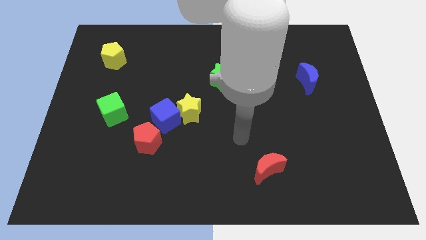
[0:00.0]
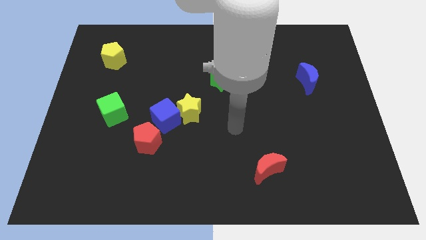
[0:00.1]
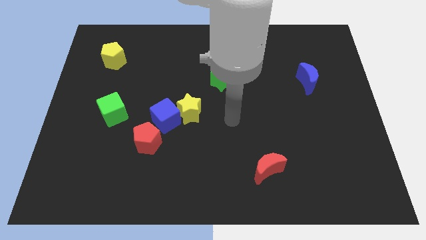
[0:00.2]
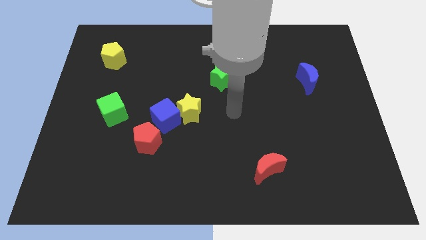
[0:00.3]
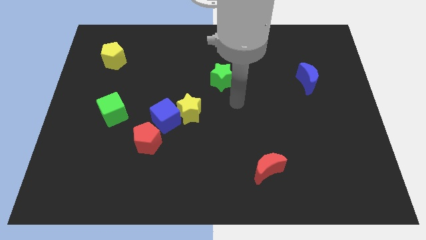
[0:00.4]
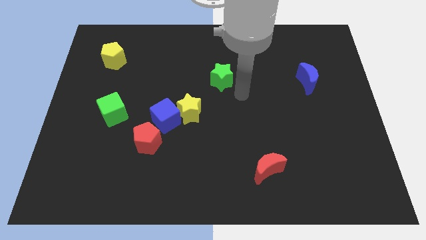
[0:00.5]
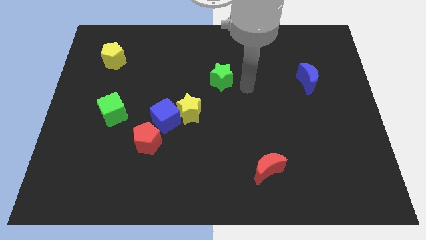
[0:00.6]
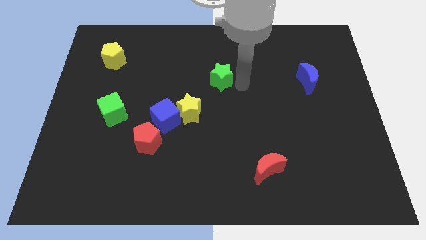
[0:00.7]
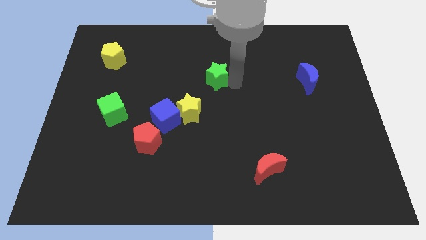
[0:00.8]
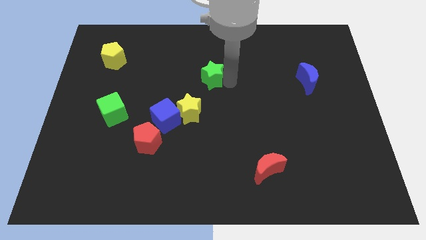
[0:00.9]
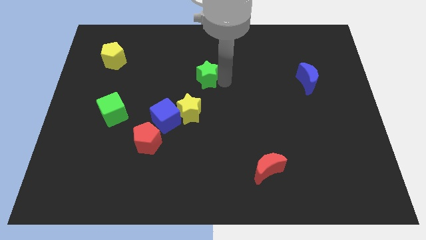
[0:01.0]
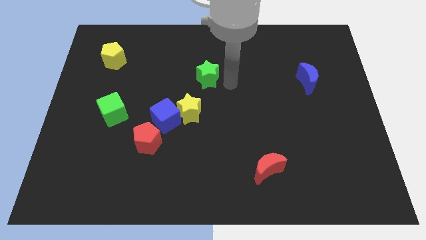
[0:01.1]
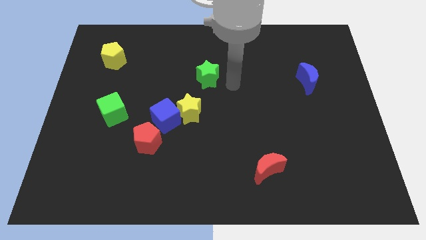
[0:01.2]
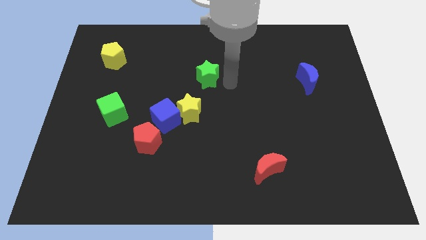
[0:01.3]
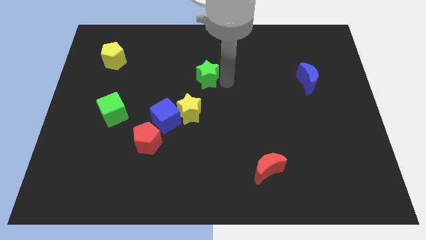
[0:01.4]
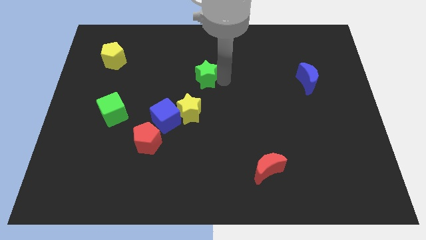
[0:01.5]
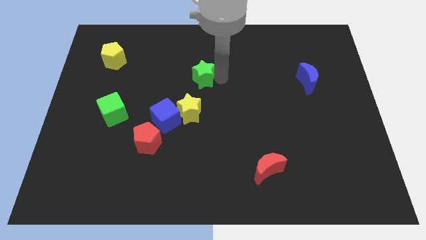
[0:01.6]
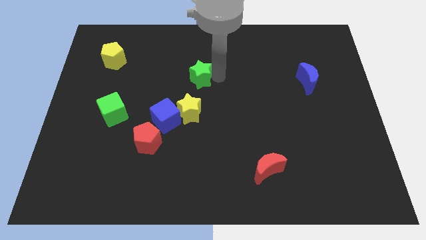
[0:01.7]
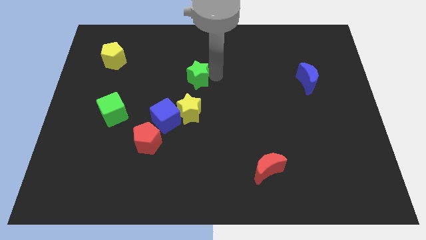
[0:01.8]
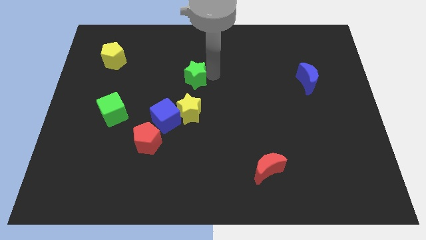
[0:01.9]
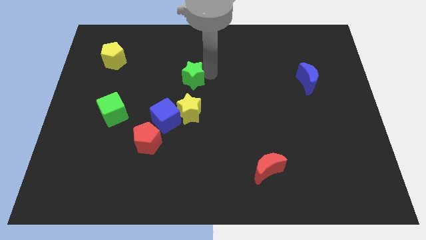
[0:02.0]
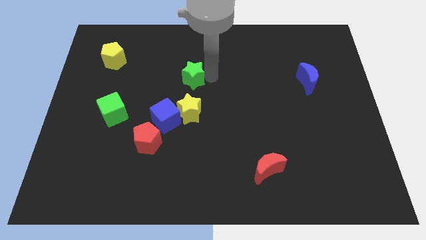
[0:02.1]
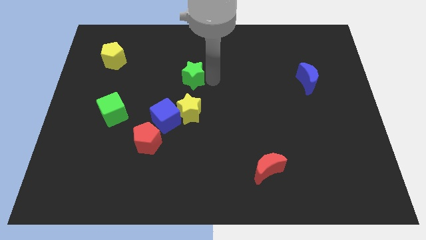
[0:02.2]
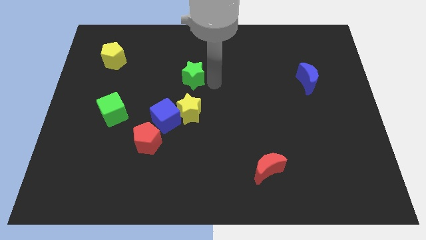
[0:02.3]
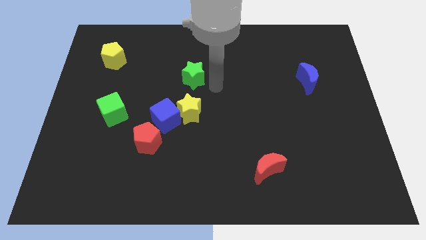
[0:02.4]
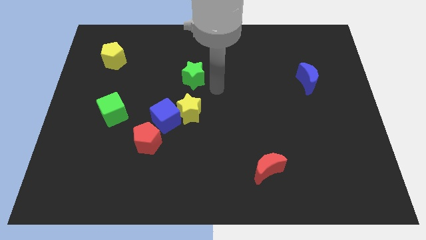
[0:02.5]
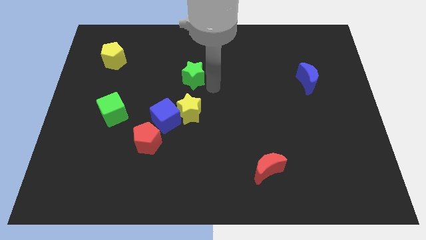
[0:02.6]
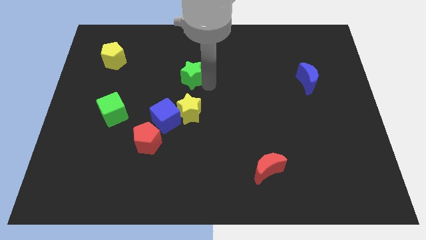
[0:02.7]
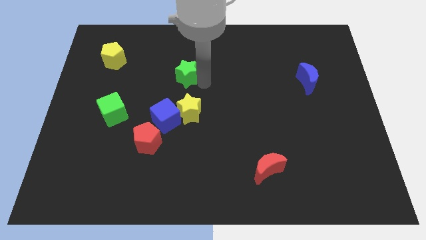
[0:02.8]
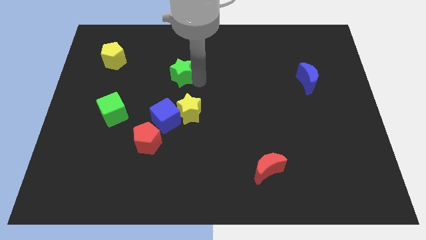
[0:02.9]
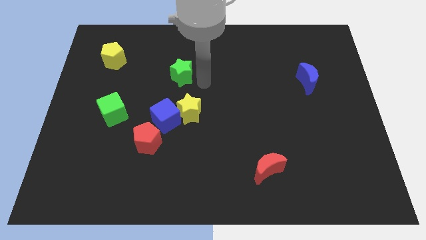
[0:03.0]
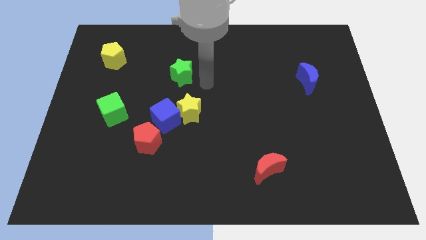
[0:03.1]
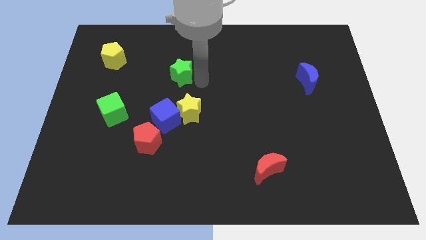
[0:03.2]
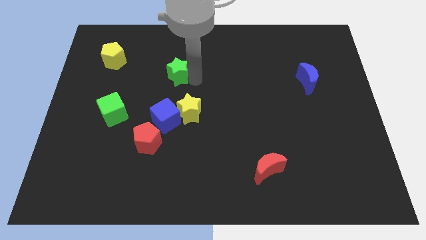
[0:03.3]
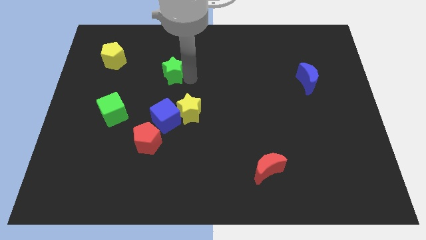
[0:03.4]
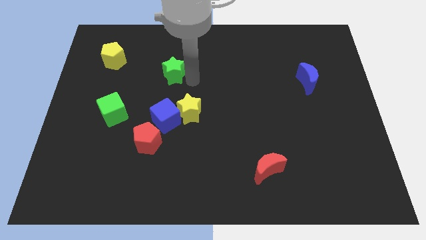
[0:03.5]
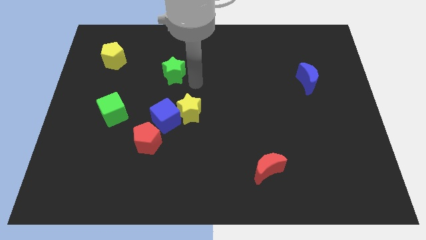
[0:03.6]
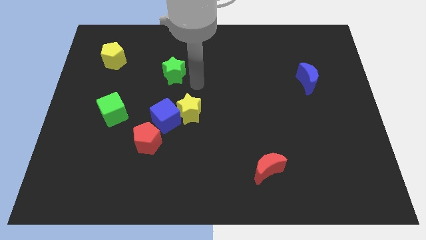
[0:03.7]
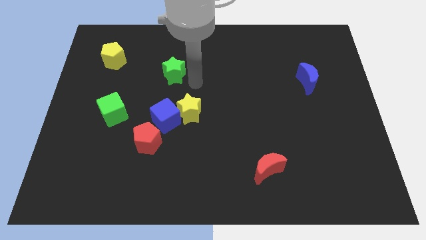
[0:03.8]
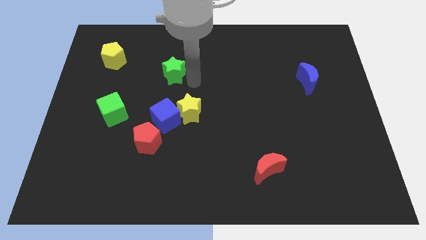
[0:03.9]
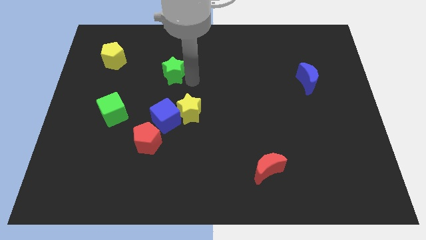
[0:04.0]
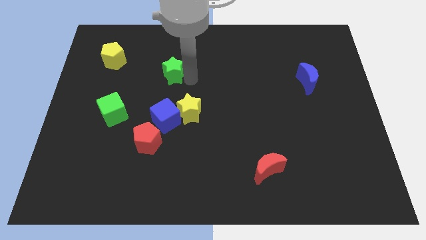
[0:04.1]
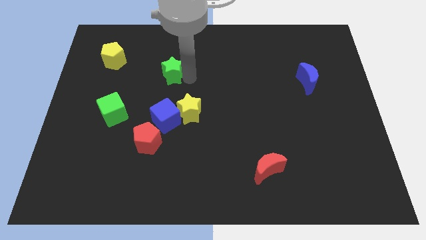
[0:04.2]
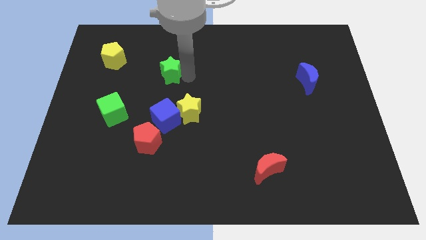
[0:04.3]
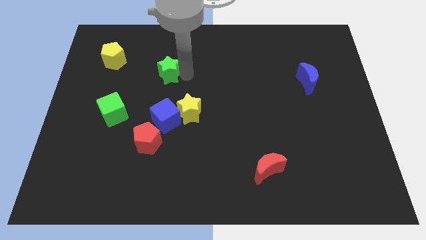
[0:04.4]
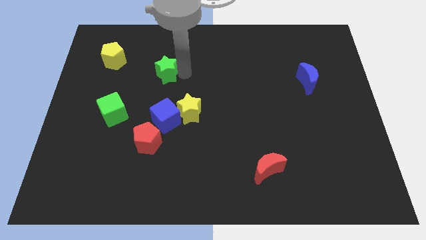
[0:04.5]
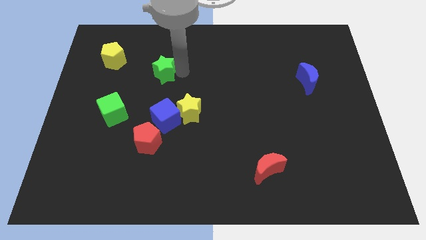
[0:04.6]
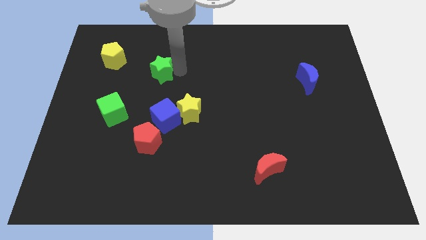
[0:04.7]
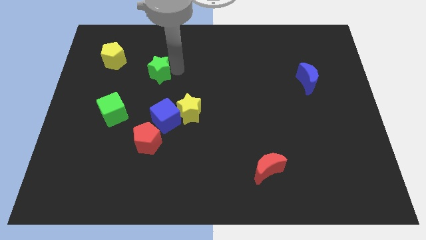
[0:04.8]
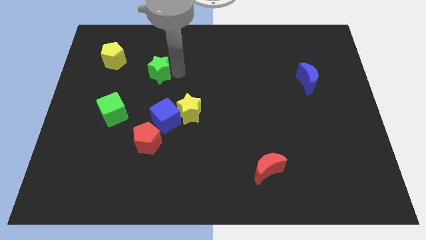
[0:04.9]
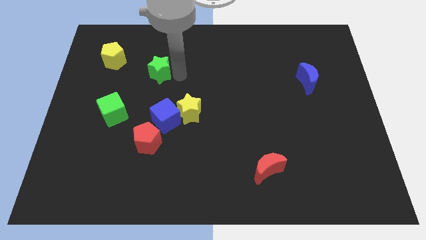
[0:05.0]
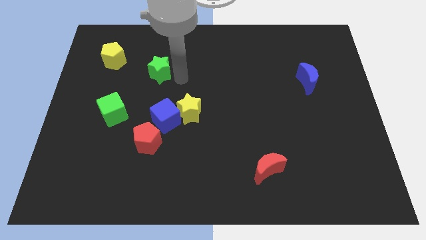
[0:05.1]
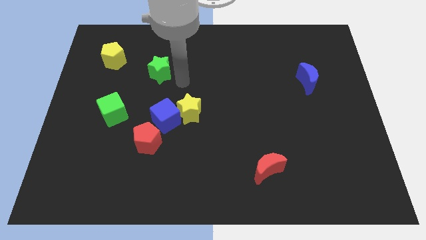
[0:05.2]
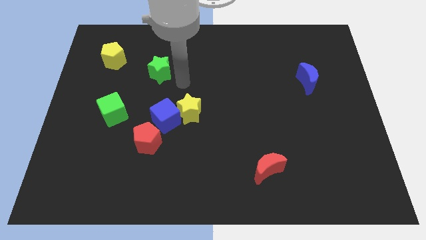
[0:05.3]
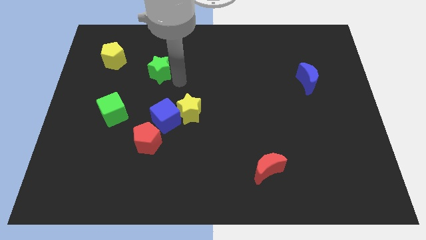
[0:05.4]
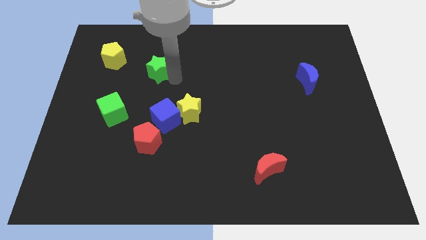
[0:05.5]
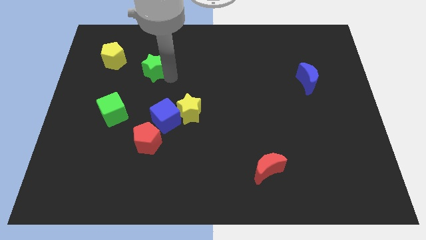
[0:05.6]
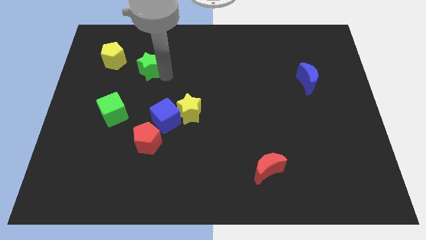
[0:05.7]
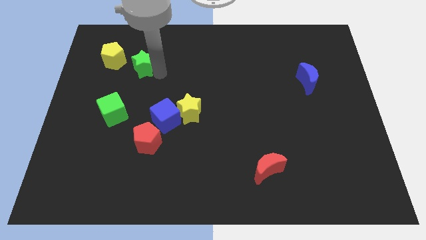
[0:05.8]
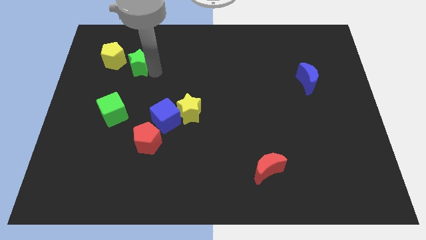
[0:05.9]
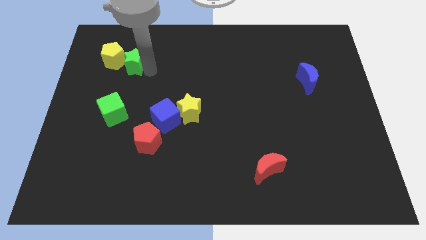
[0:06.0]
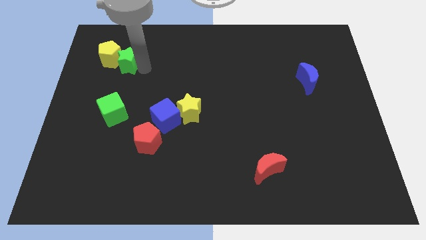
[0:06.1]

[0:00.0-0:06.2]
slide the green star towards the yellow pentagon

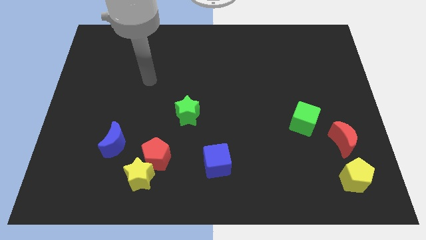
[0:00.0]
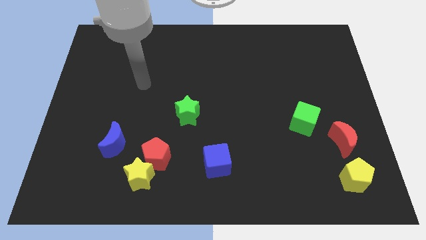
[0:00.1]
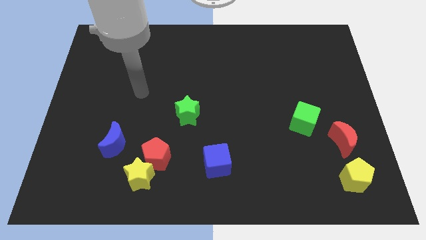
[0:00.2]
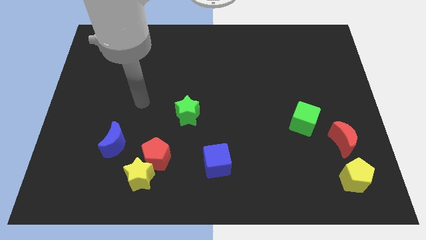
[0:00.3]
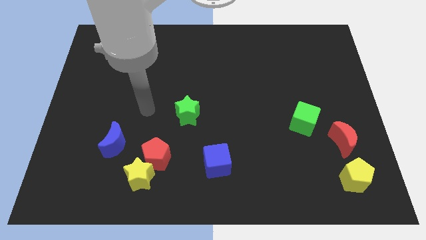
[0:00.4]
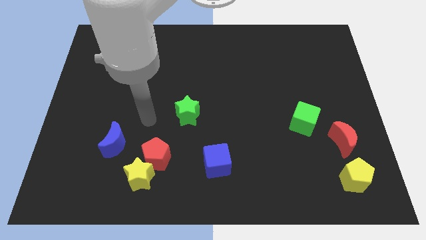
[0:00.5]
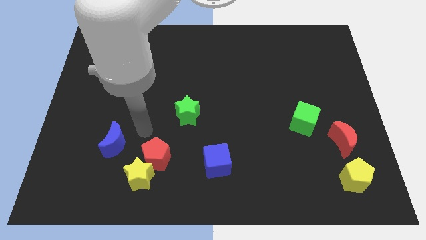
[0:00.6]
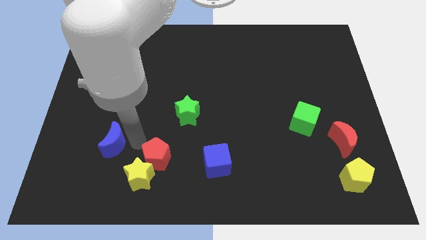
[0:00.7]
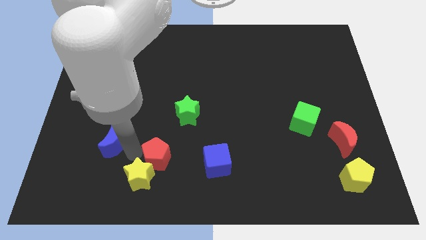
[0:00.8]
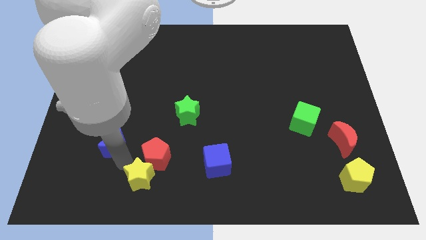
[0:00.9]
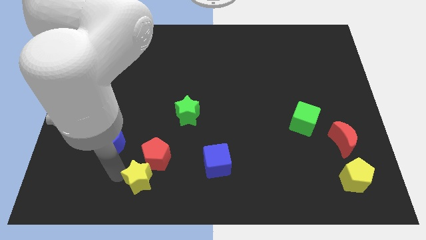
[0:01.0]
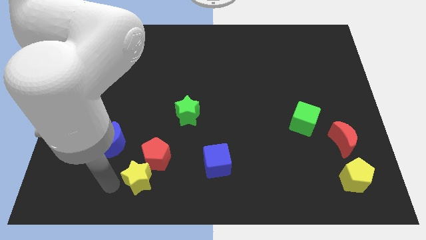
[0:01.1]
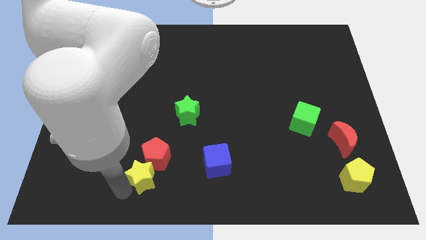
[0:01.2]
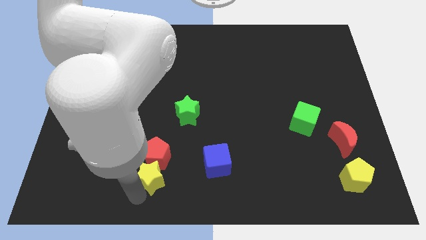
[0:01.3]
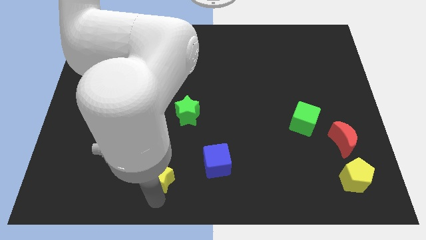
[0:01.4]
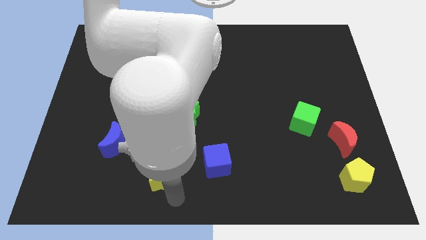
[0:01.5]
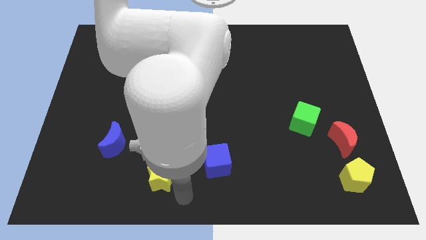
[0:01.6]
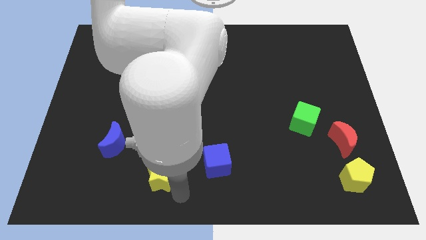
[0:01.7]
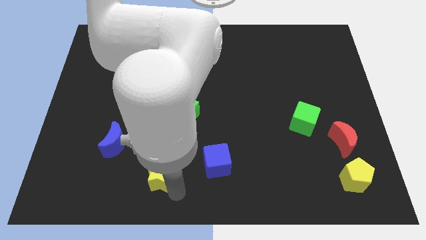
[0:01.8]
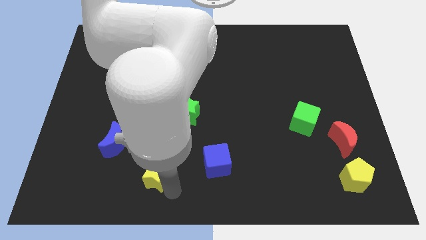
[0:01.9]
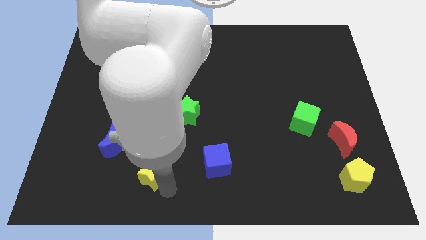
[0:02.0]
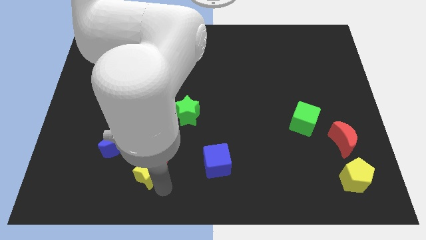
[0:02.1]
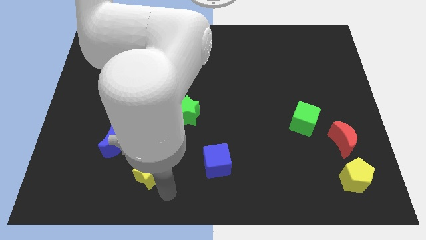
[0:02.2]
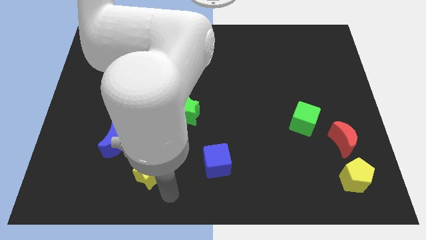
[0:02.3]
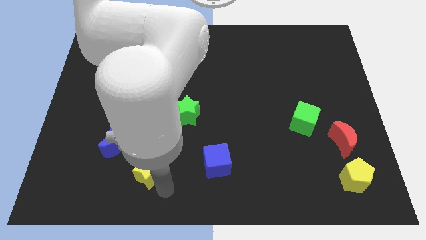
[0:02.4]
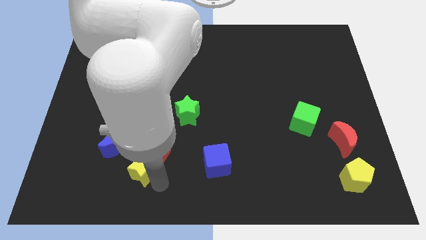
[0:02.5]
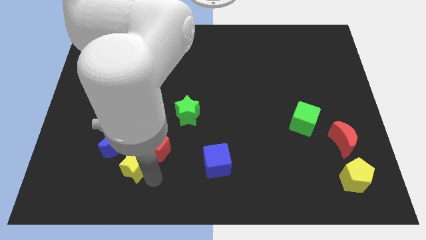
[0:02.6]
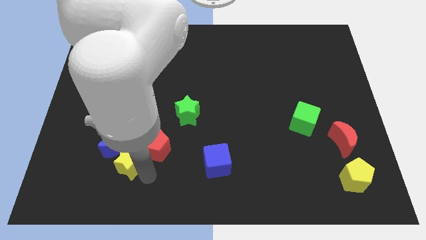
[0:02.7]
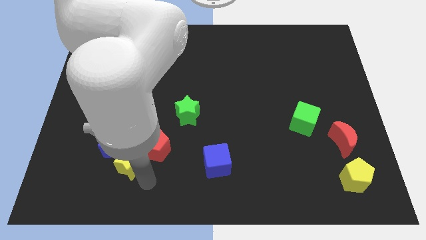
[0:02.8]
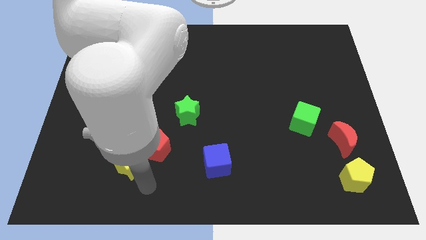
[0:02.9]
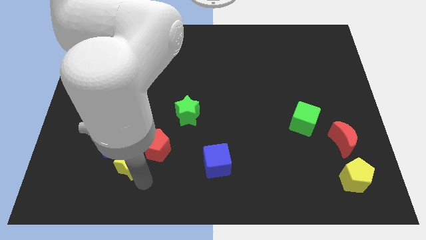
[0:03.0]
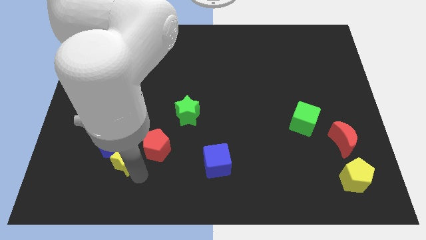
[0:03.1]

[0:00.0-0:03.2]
put the yellow star to the blue moon
